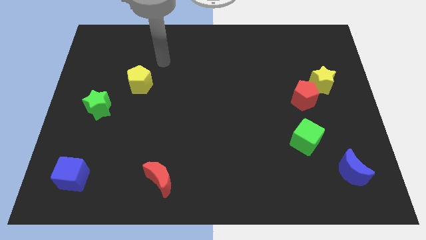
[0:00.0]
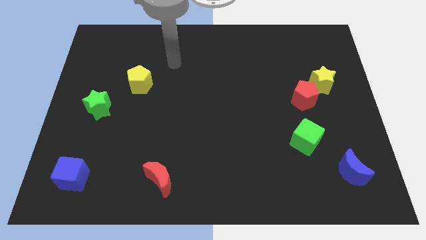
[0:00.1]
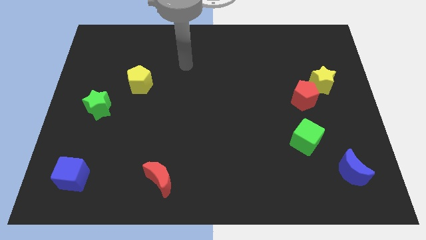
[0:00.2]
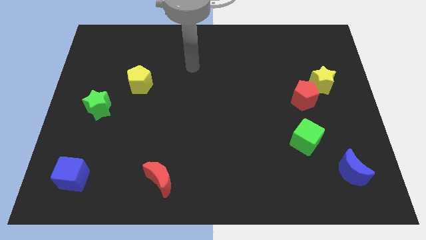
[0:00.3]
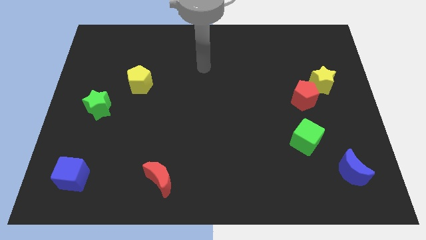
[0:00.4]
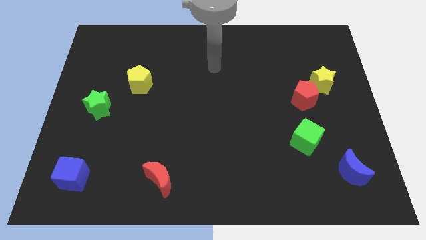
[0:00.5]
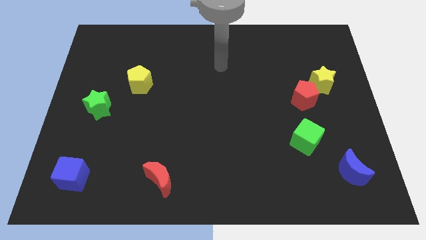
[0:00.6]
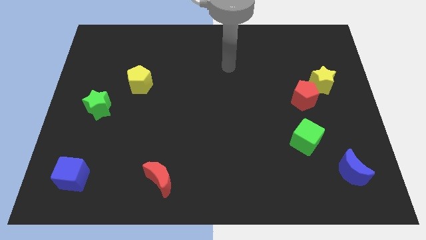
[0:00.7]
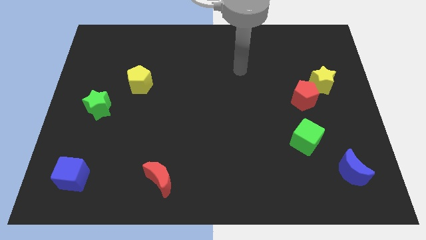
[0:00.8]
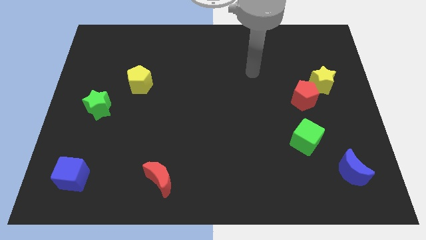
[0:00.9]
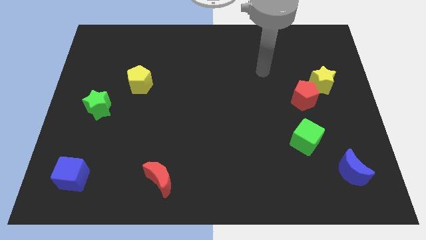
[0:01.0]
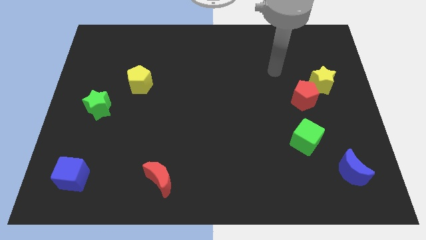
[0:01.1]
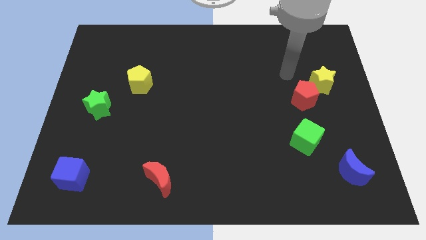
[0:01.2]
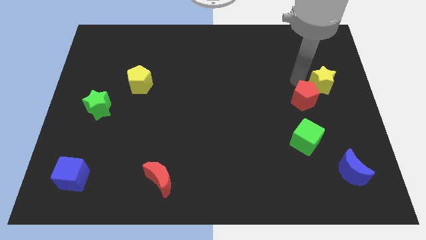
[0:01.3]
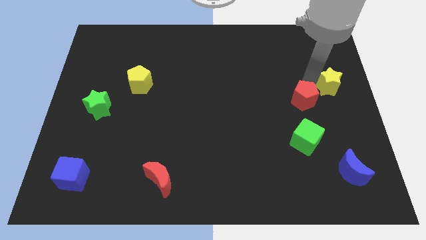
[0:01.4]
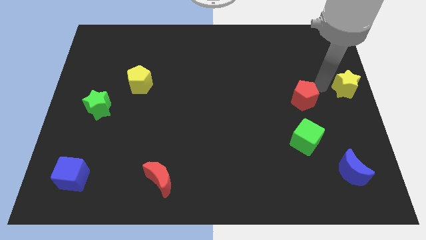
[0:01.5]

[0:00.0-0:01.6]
separate the red pentagon from the yellow star

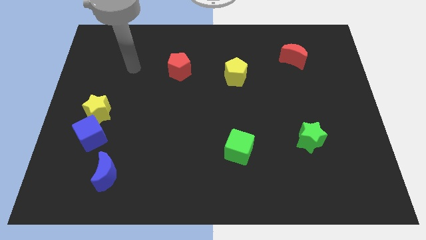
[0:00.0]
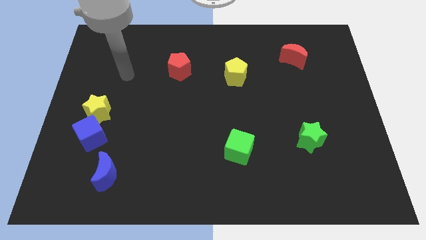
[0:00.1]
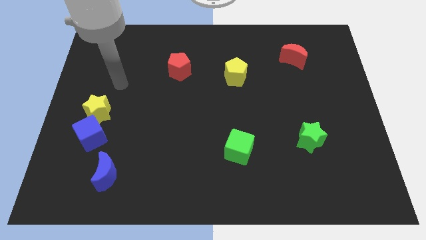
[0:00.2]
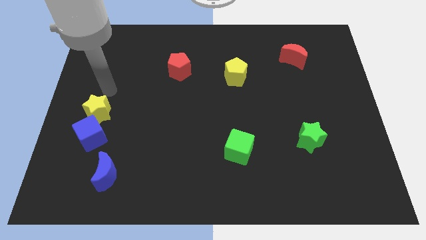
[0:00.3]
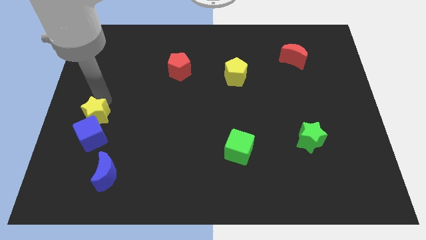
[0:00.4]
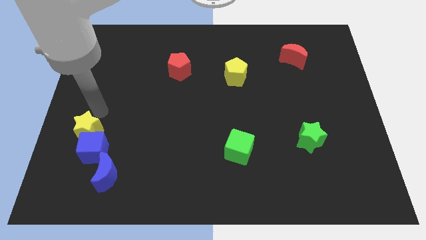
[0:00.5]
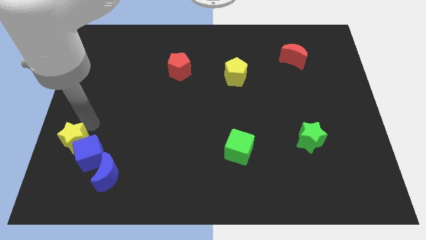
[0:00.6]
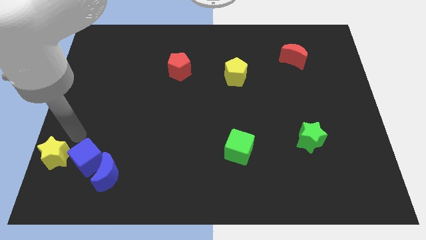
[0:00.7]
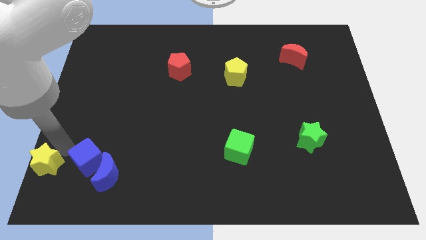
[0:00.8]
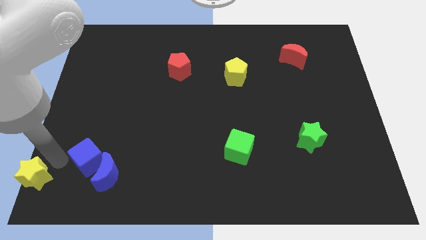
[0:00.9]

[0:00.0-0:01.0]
pull the blue cube apart from the yellow star

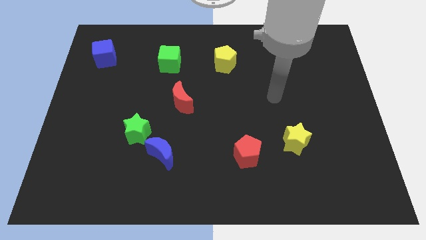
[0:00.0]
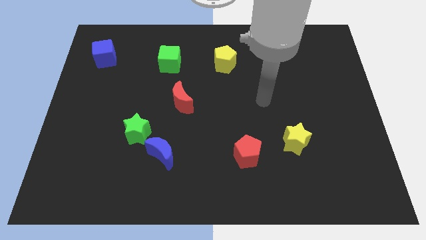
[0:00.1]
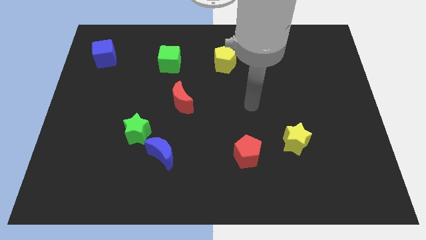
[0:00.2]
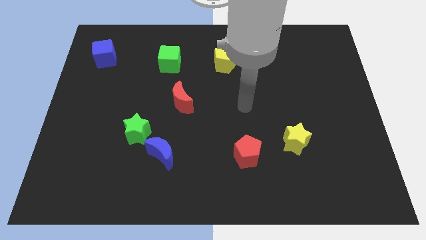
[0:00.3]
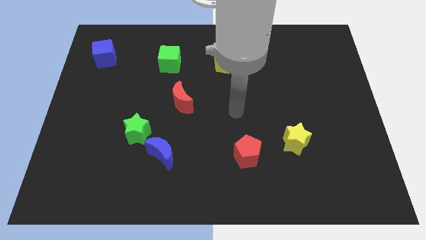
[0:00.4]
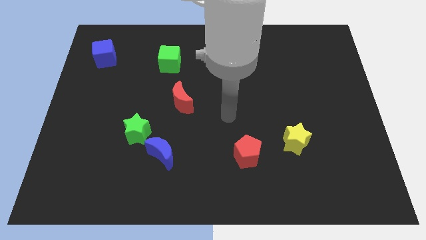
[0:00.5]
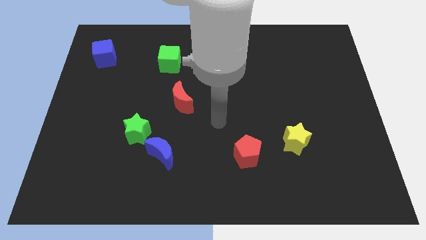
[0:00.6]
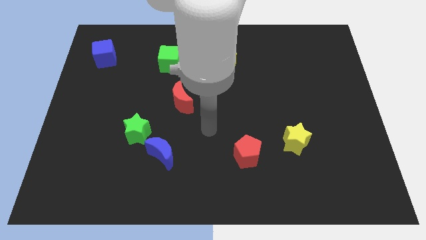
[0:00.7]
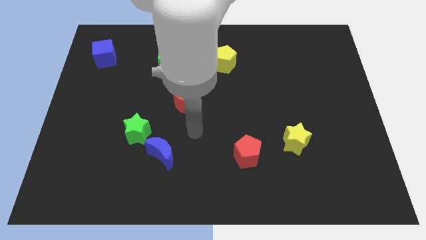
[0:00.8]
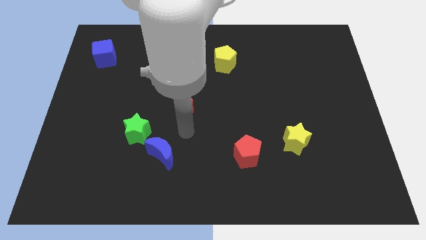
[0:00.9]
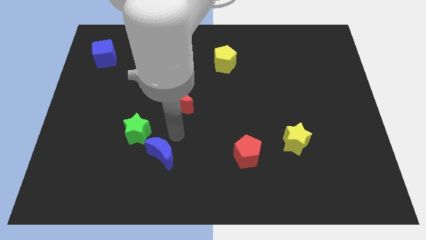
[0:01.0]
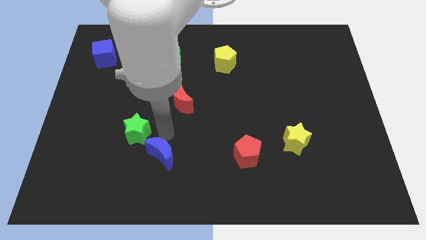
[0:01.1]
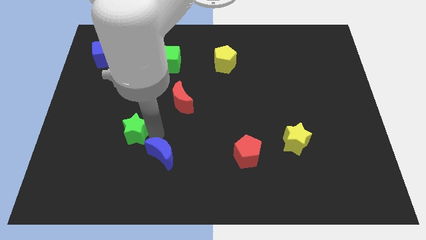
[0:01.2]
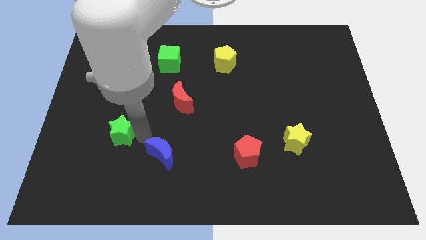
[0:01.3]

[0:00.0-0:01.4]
separate the blue moon from the green star

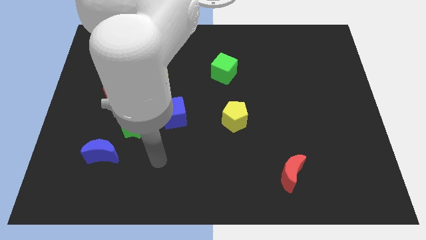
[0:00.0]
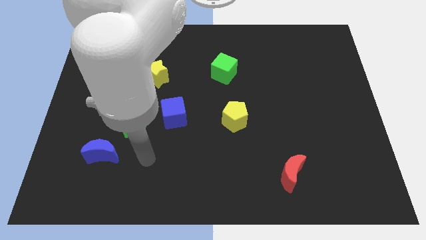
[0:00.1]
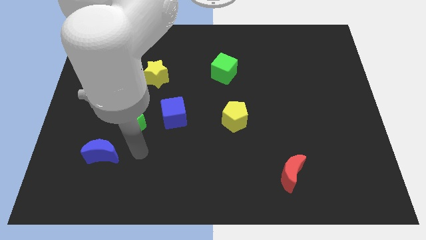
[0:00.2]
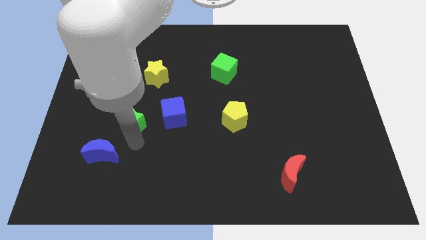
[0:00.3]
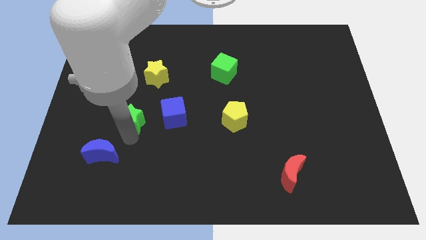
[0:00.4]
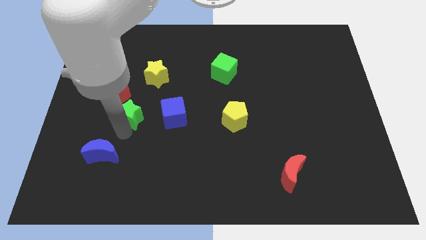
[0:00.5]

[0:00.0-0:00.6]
move the blue moon away from the green star

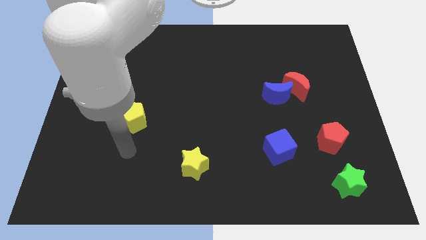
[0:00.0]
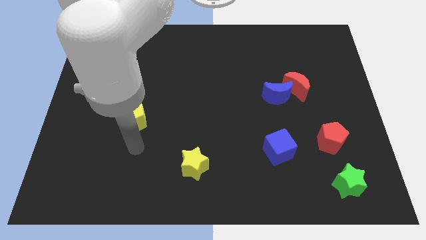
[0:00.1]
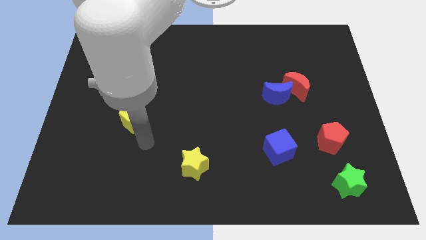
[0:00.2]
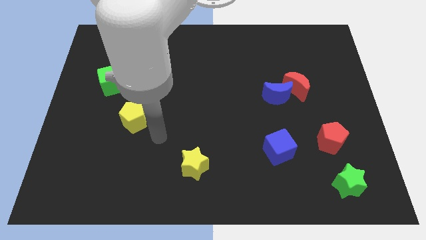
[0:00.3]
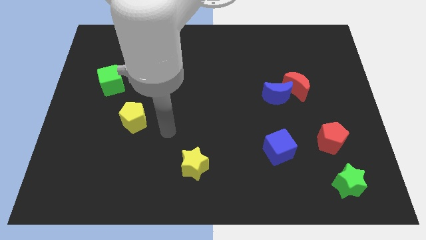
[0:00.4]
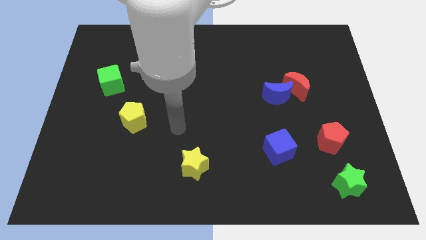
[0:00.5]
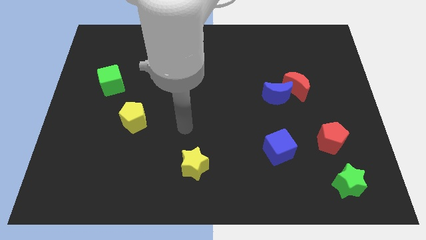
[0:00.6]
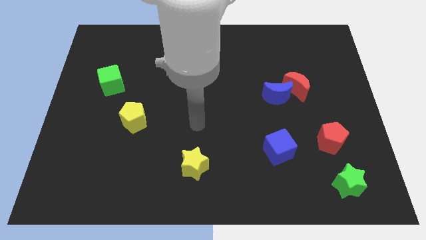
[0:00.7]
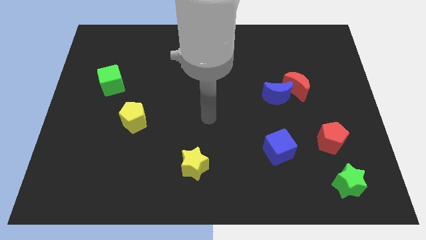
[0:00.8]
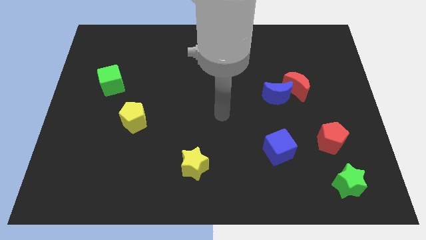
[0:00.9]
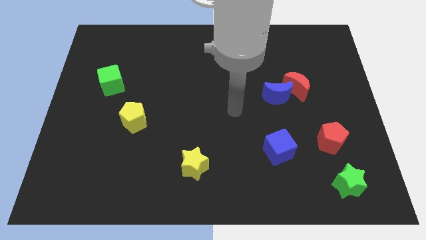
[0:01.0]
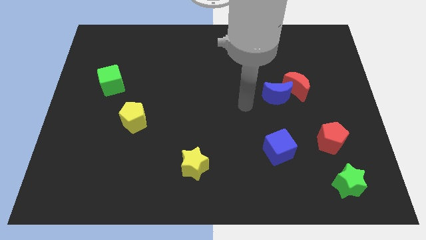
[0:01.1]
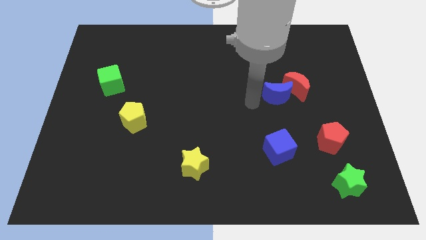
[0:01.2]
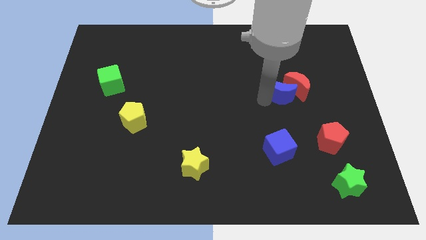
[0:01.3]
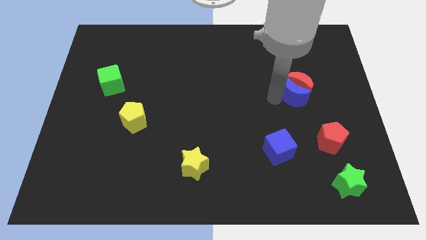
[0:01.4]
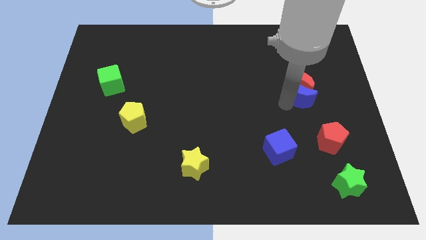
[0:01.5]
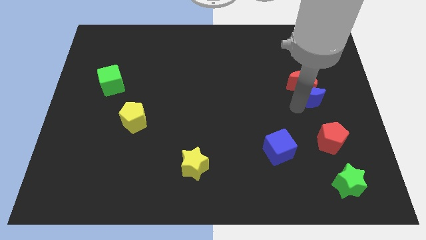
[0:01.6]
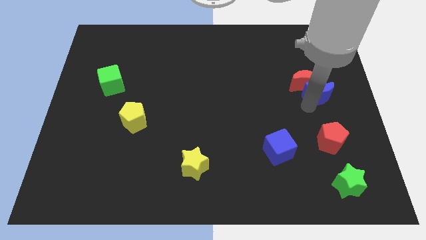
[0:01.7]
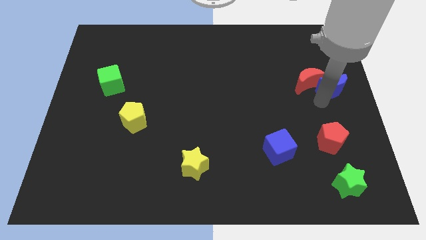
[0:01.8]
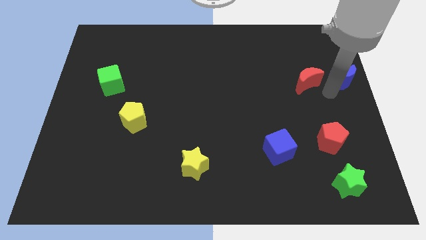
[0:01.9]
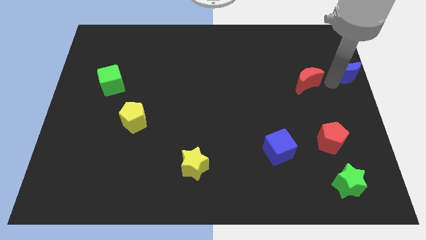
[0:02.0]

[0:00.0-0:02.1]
separate the red moon from the blue moon

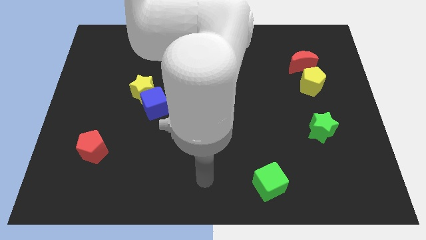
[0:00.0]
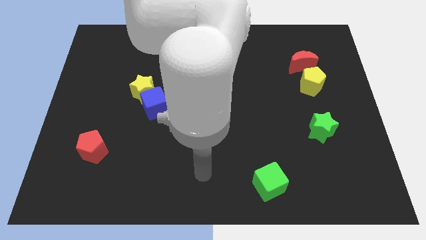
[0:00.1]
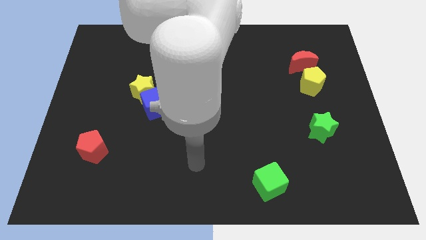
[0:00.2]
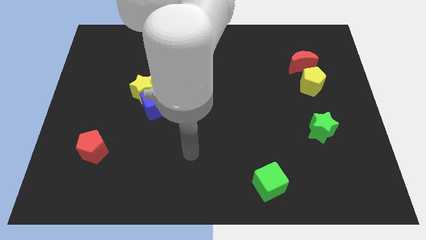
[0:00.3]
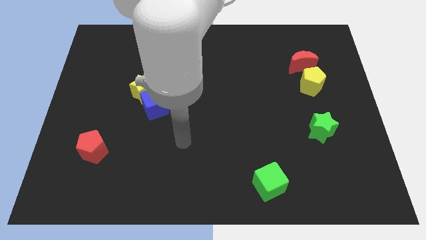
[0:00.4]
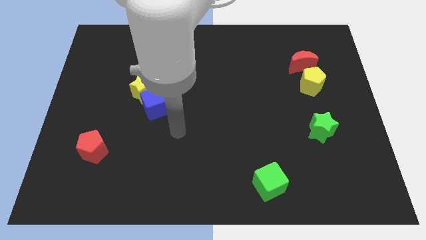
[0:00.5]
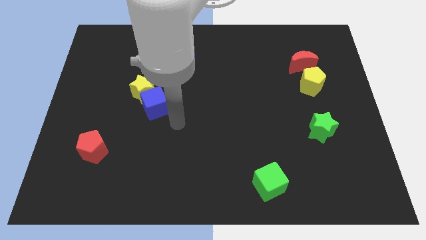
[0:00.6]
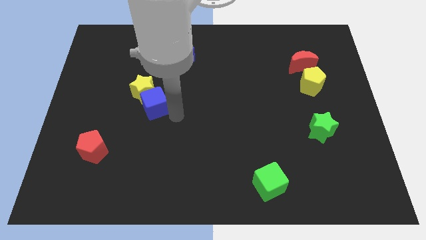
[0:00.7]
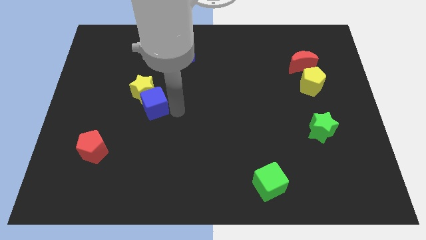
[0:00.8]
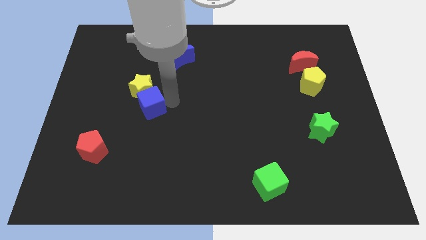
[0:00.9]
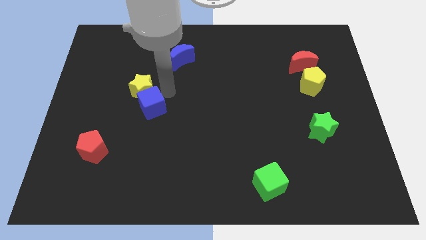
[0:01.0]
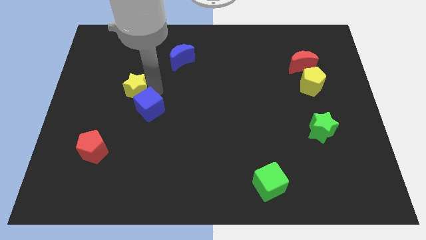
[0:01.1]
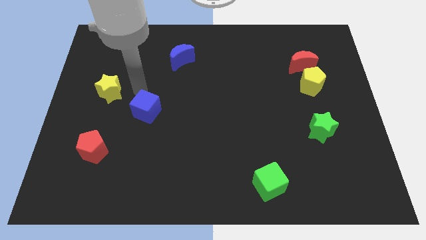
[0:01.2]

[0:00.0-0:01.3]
move the blue cube away from the yellow star

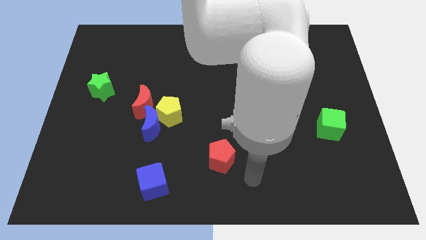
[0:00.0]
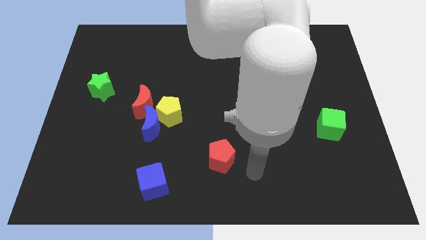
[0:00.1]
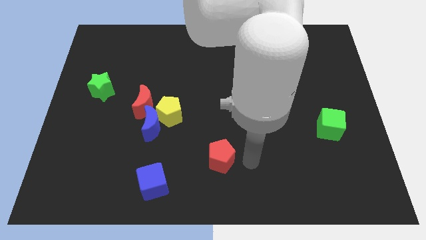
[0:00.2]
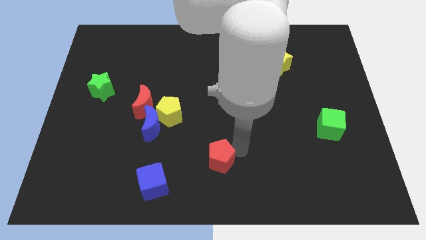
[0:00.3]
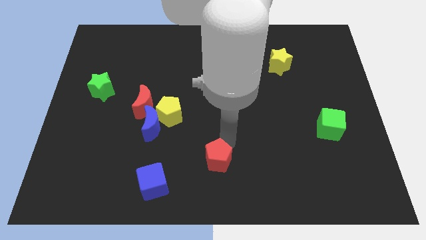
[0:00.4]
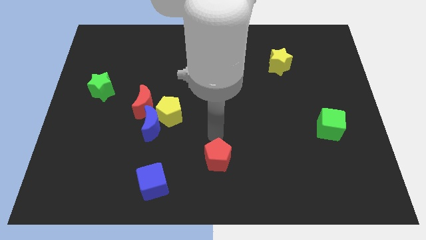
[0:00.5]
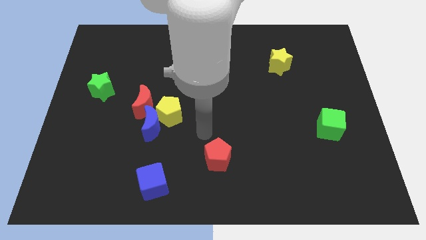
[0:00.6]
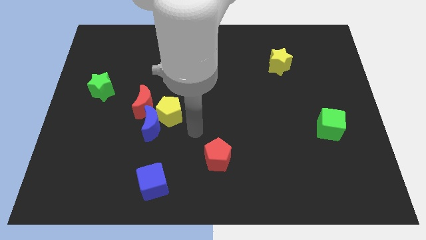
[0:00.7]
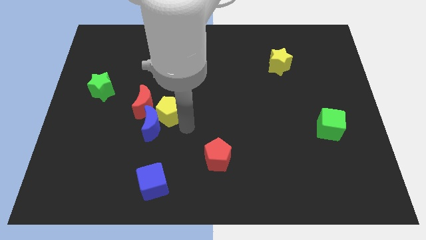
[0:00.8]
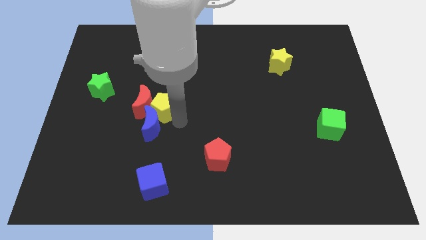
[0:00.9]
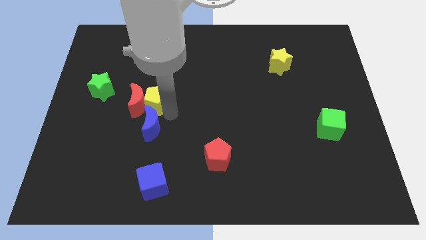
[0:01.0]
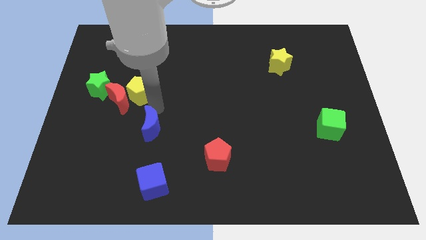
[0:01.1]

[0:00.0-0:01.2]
separate the blue moon from the yellow pentagon and red moon
